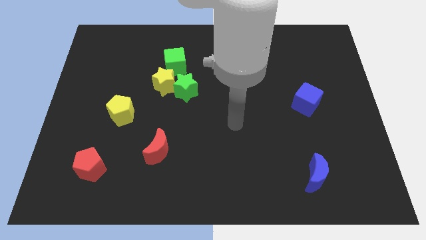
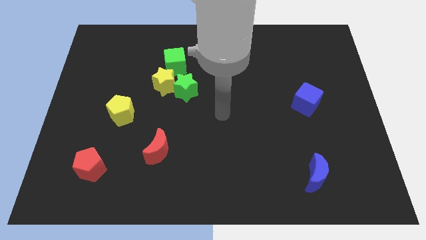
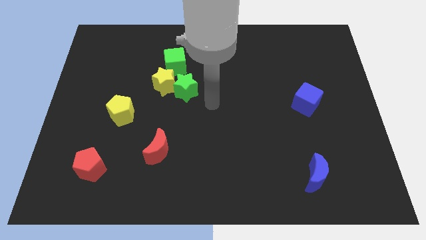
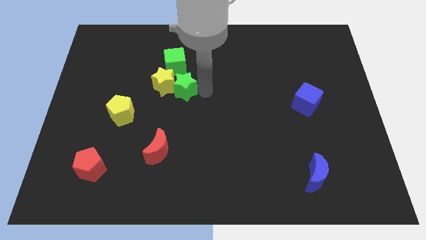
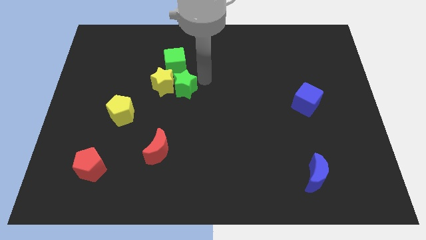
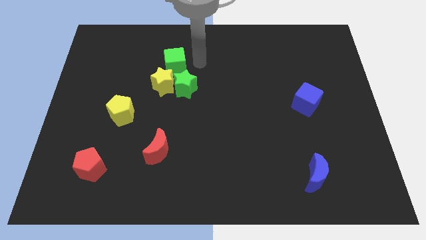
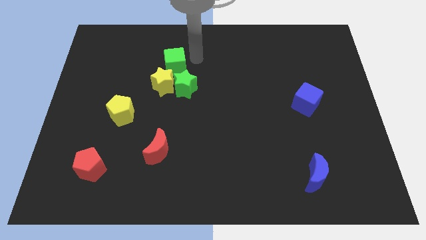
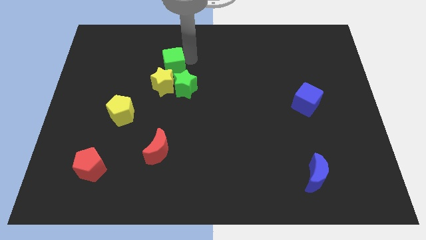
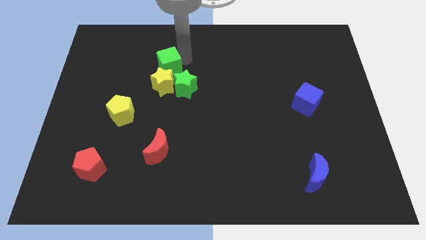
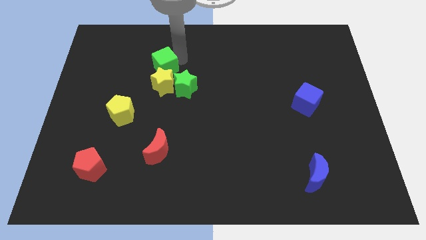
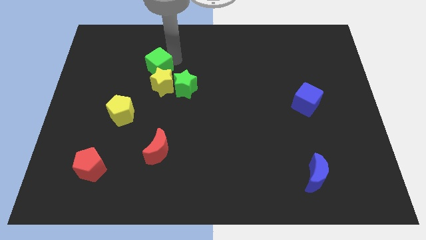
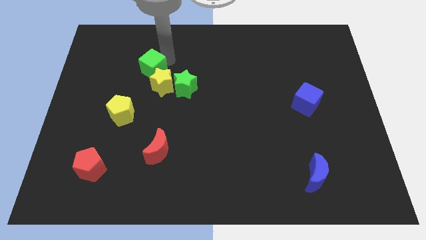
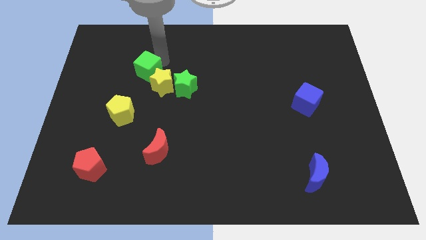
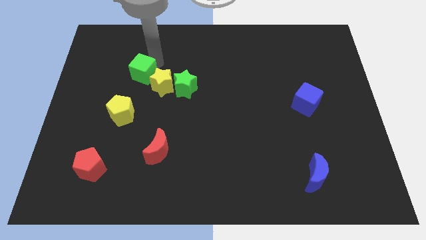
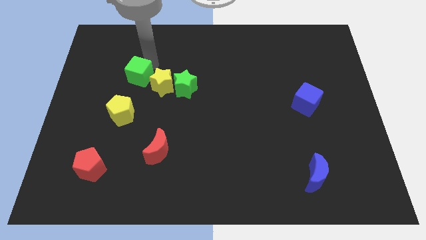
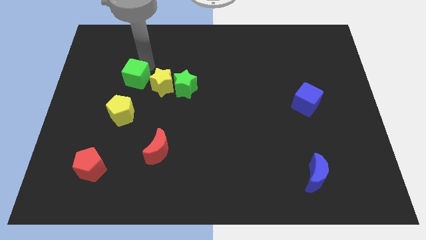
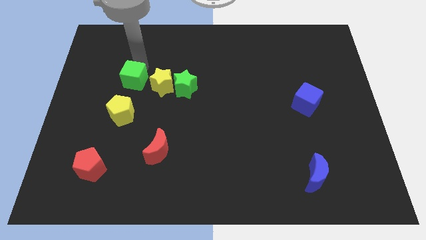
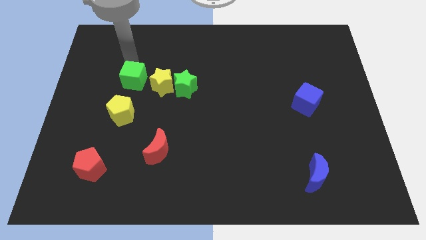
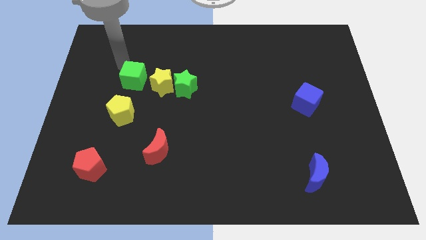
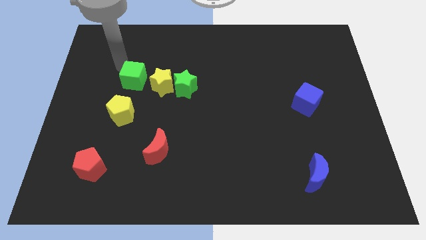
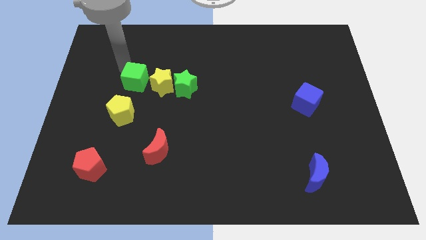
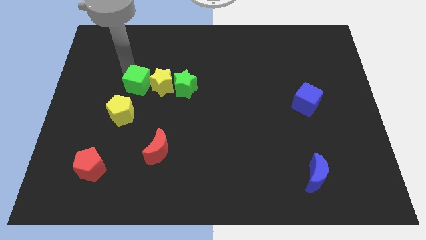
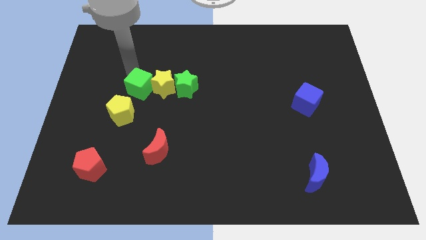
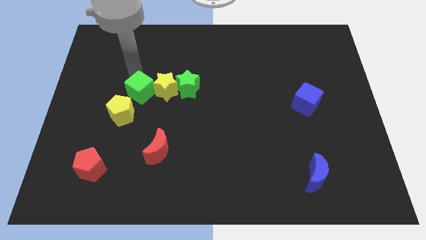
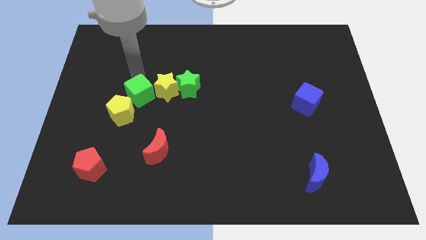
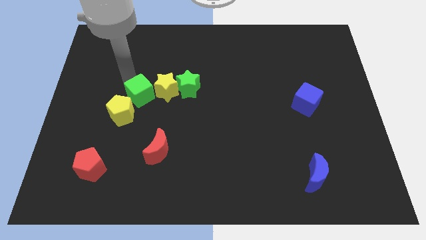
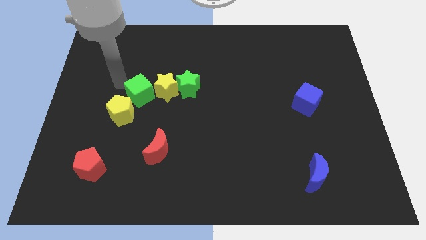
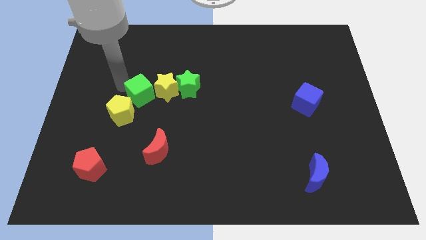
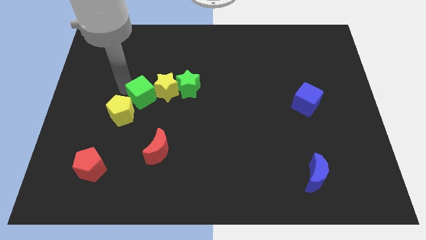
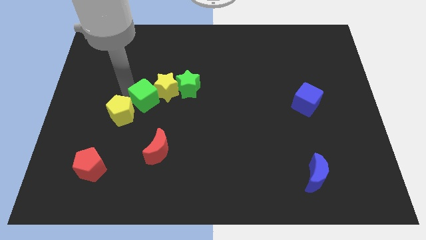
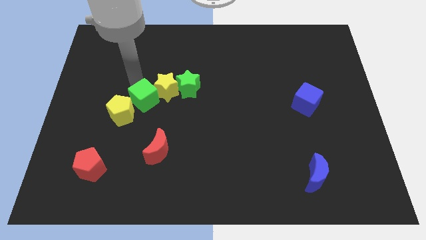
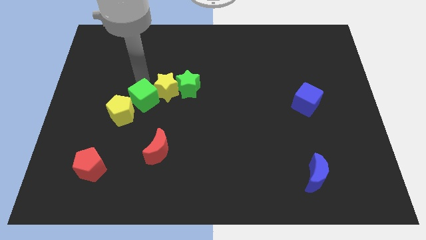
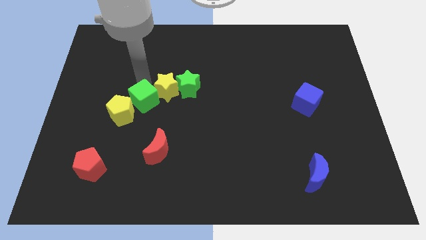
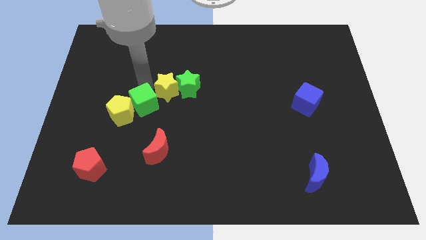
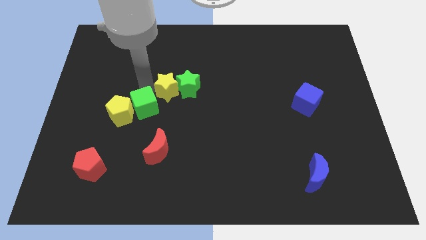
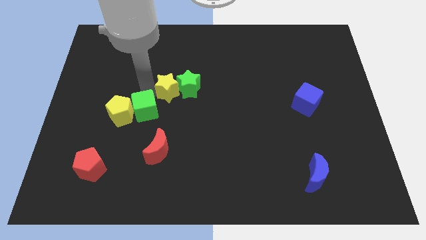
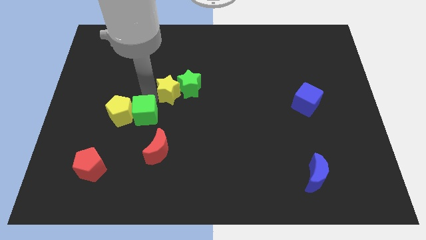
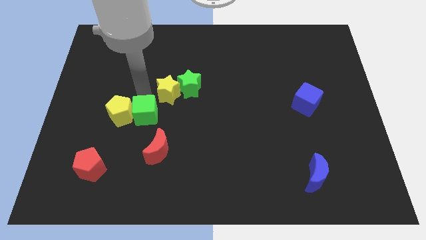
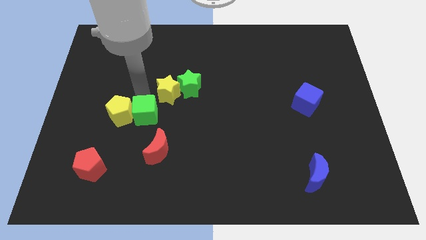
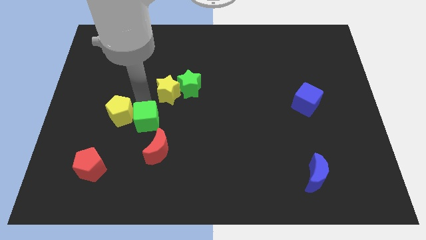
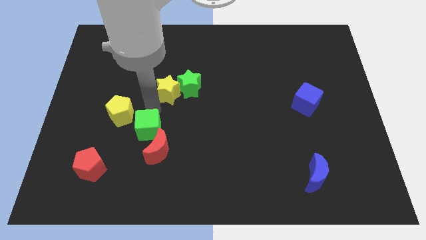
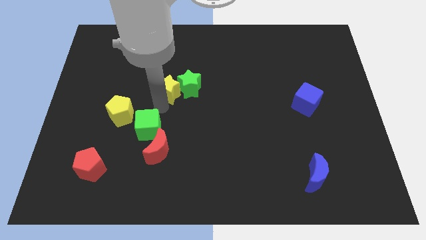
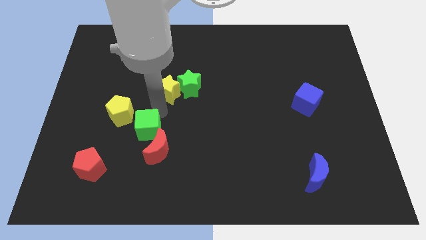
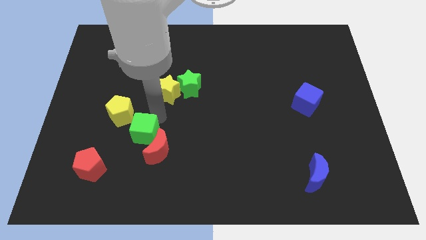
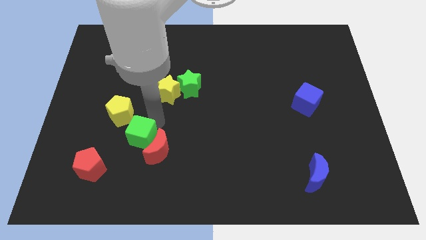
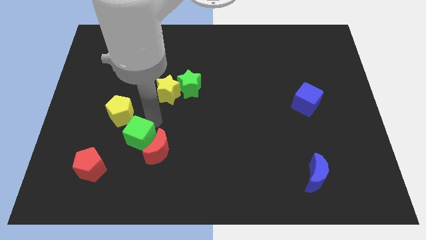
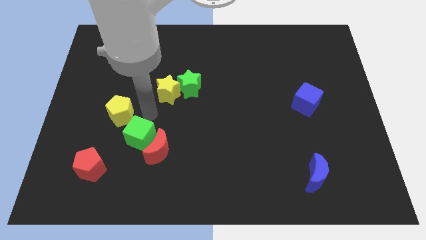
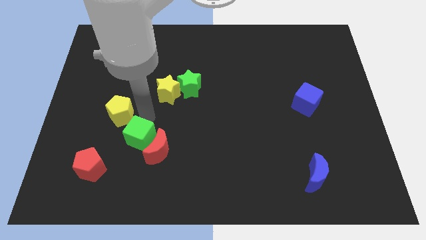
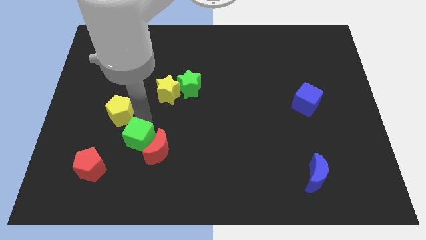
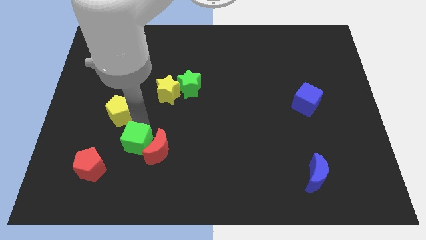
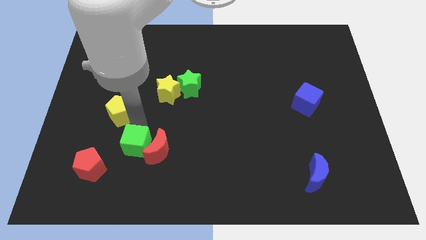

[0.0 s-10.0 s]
slide the green cube diagonally down and to the left of the red moon

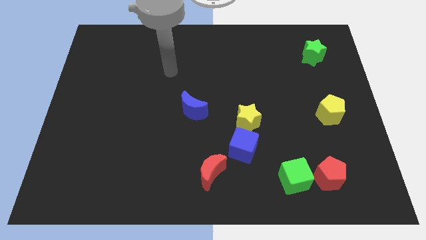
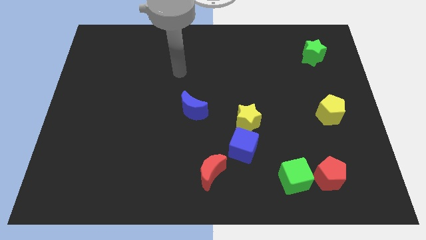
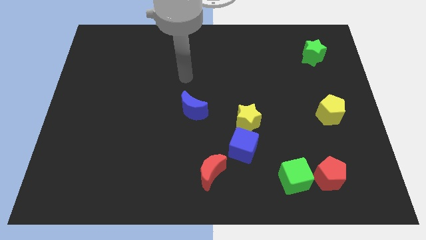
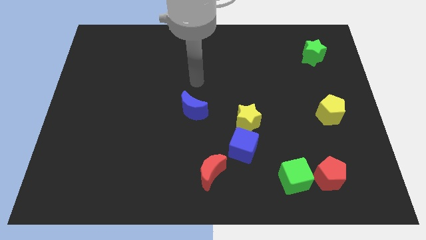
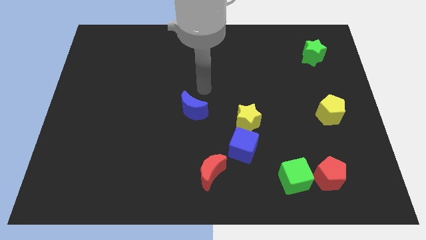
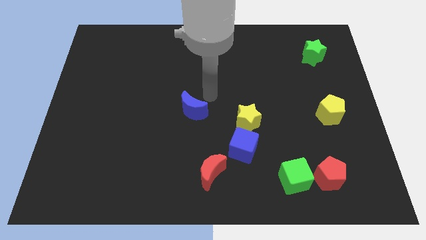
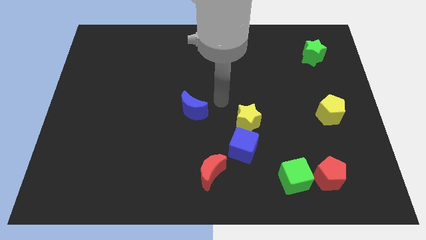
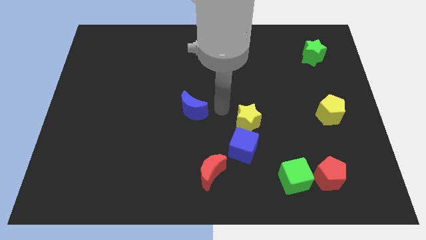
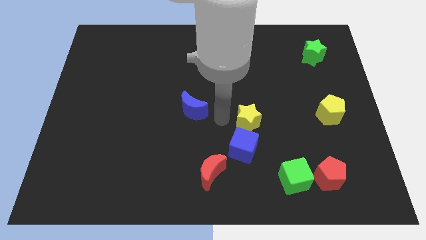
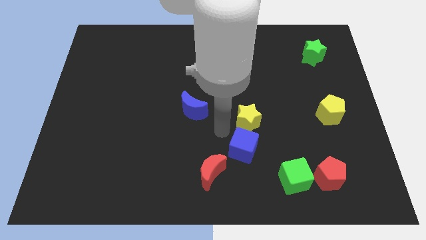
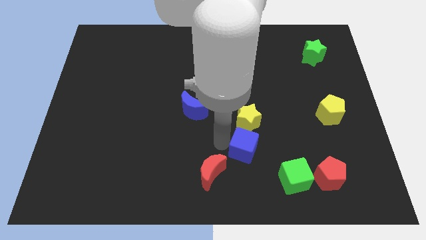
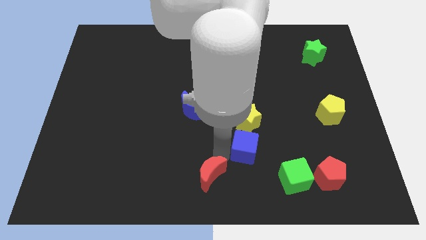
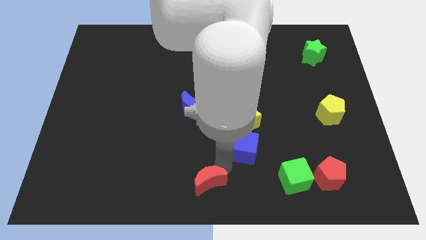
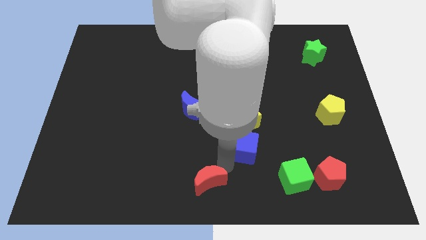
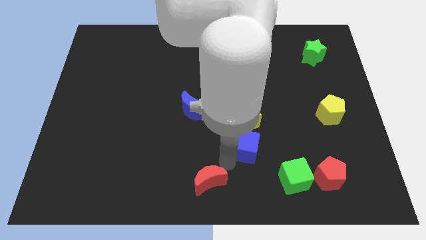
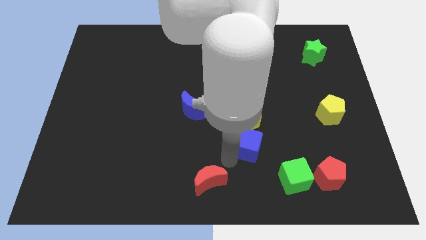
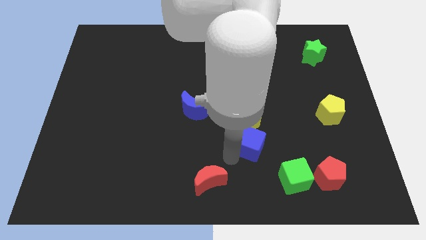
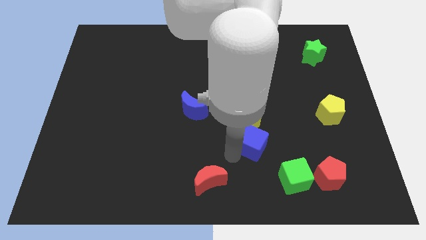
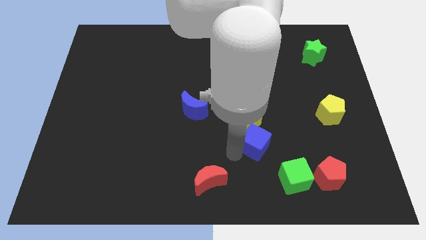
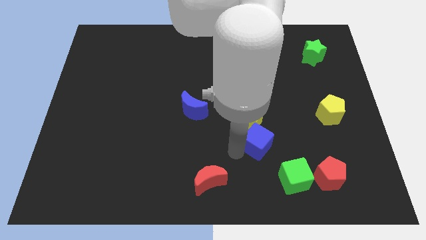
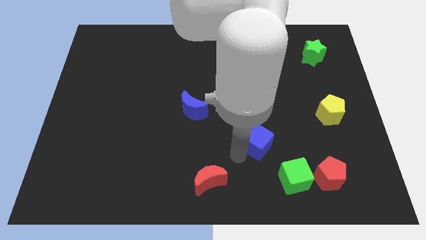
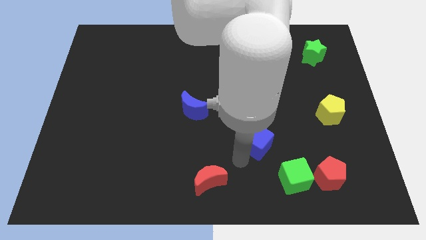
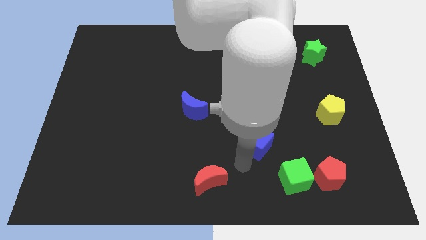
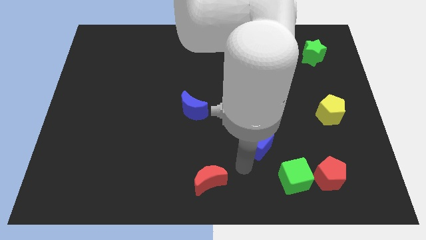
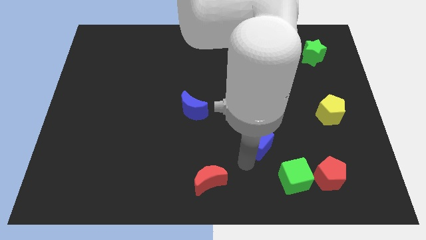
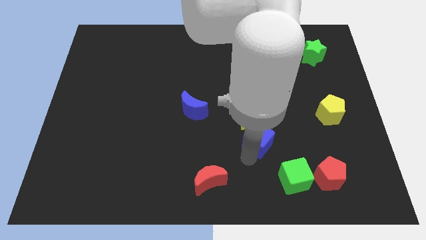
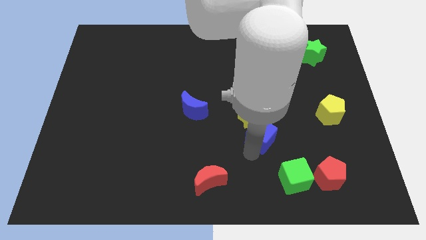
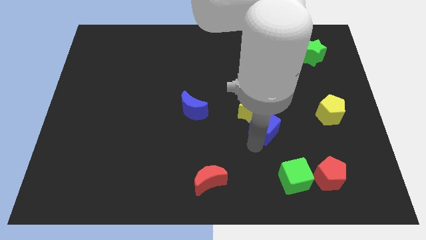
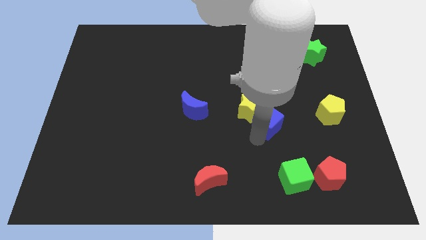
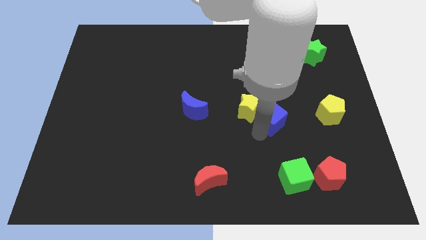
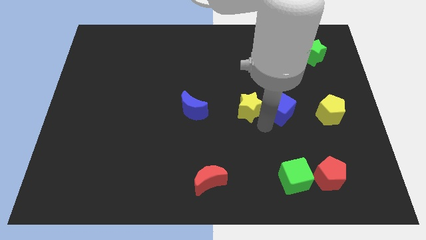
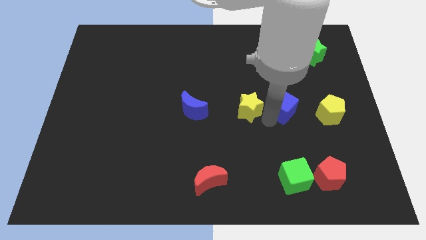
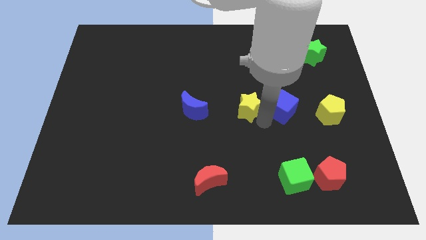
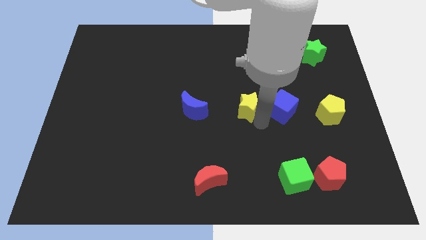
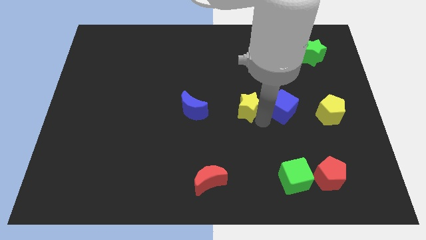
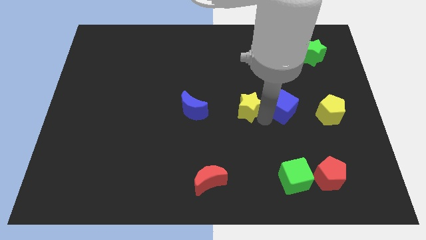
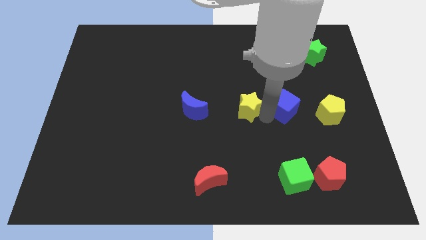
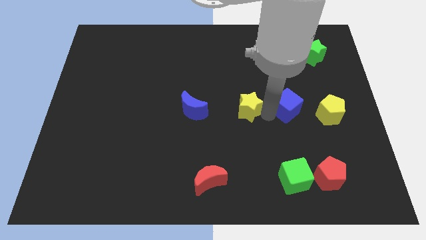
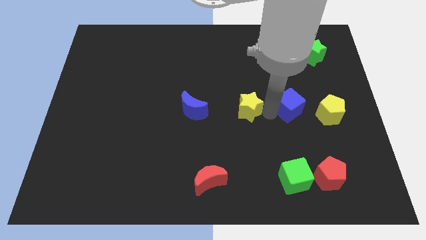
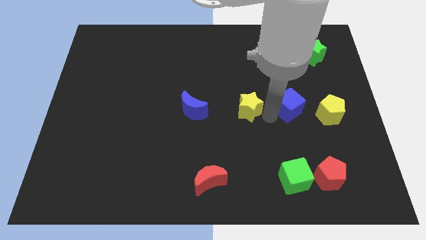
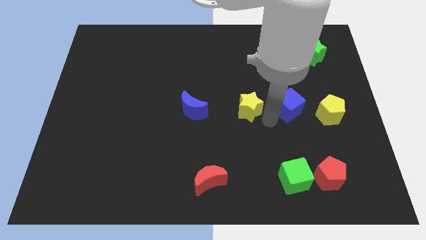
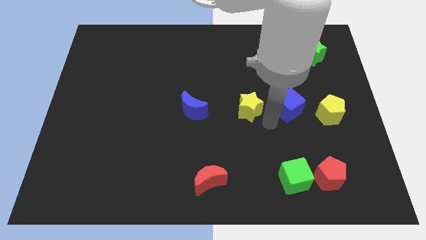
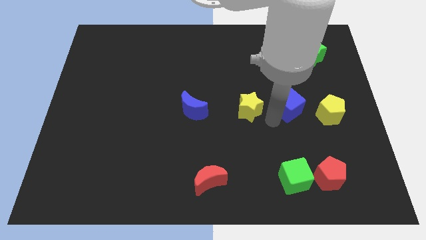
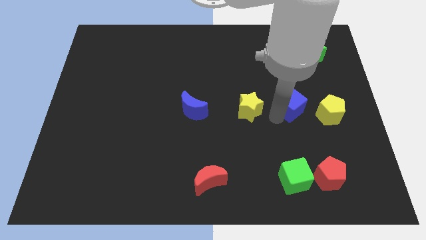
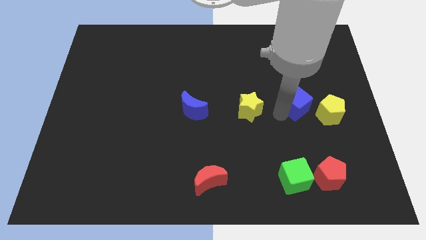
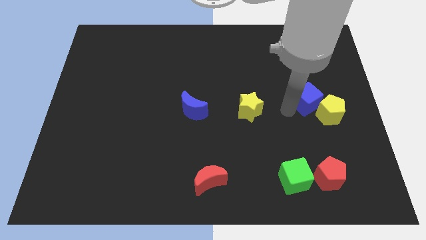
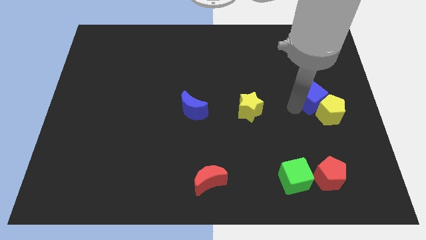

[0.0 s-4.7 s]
push the blue cube below the green star
